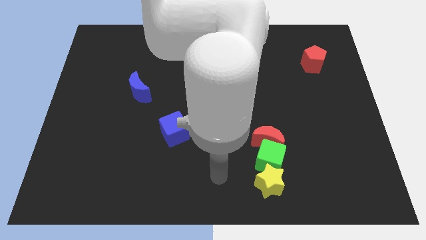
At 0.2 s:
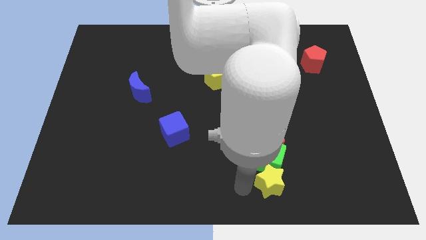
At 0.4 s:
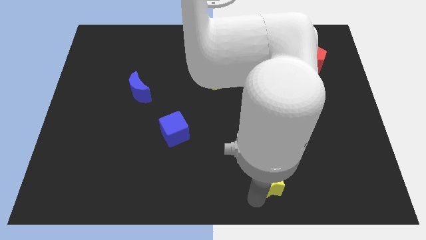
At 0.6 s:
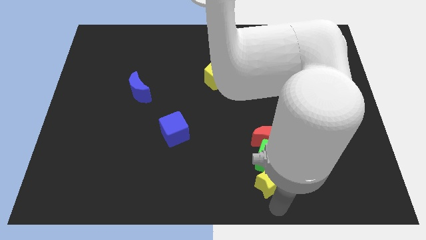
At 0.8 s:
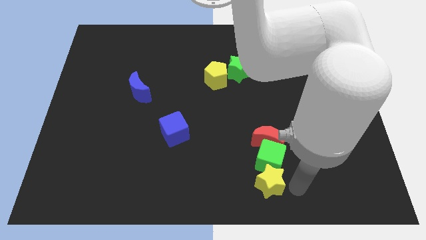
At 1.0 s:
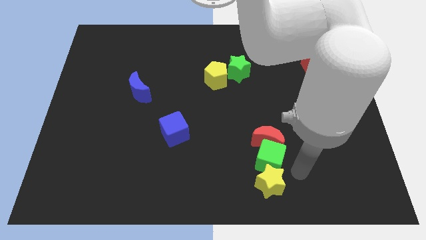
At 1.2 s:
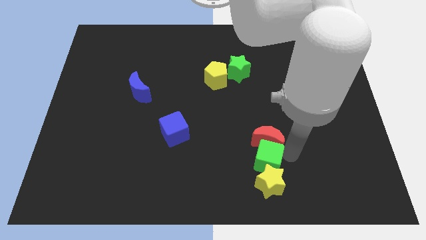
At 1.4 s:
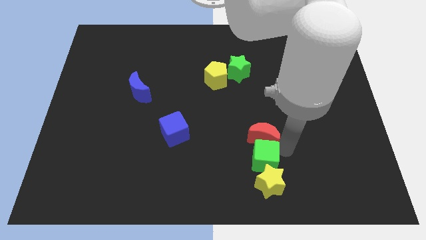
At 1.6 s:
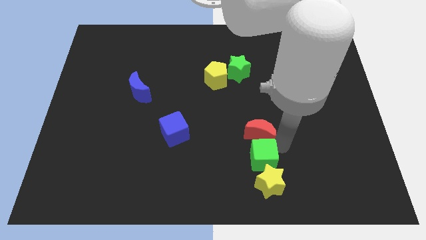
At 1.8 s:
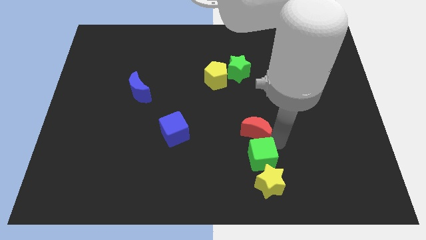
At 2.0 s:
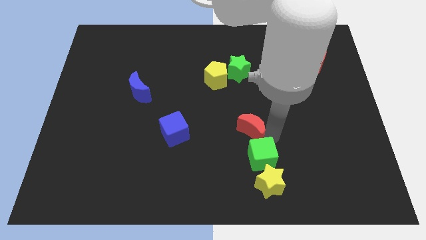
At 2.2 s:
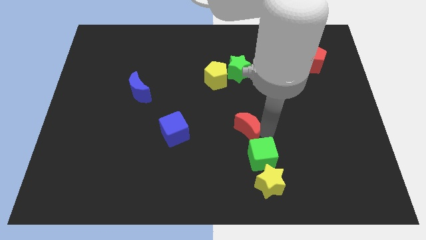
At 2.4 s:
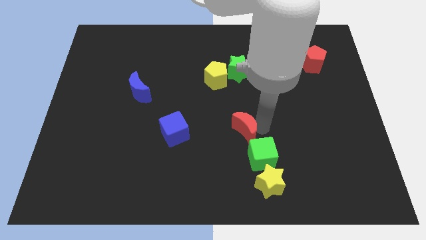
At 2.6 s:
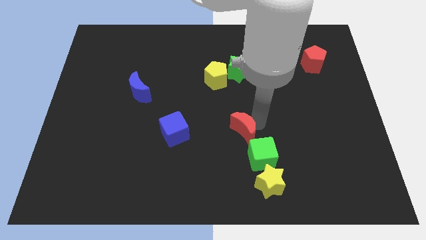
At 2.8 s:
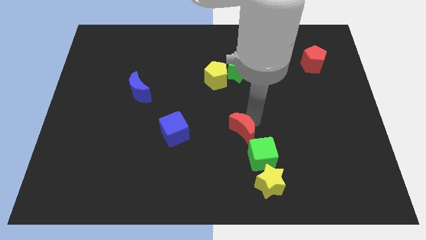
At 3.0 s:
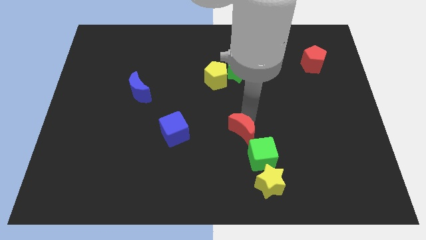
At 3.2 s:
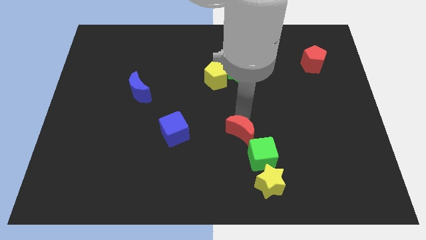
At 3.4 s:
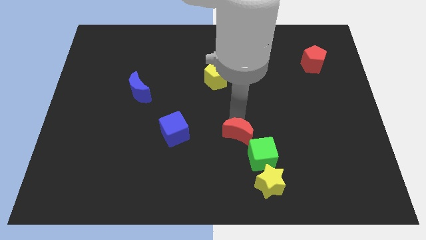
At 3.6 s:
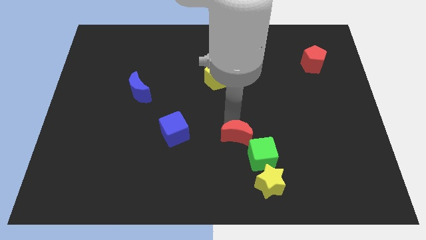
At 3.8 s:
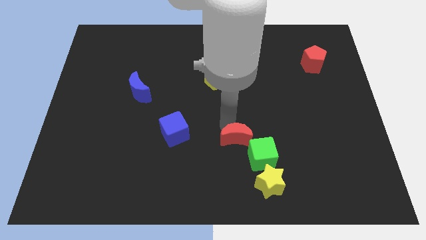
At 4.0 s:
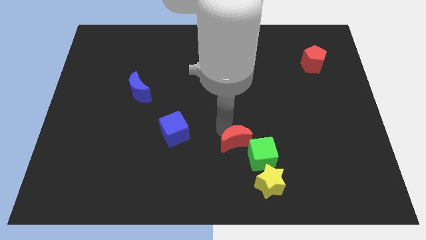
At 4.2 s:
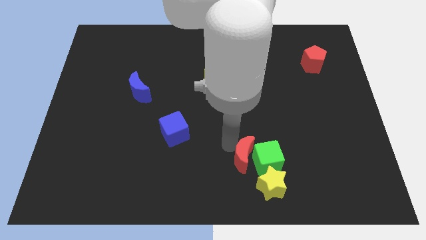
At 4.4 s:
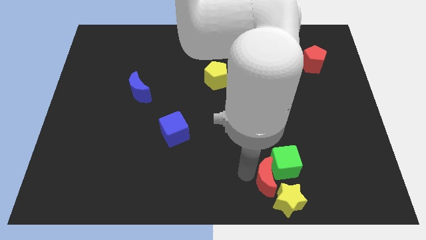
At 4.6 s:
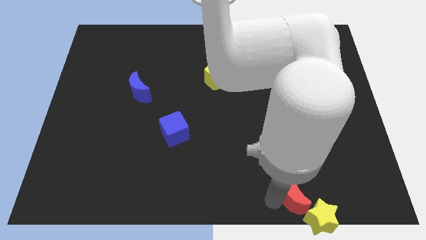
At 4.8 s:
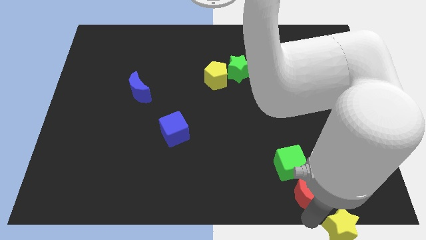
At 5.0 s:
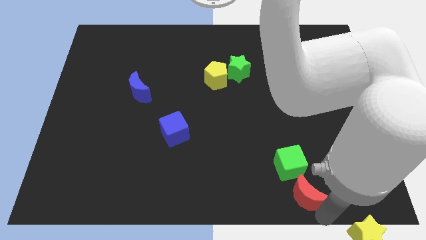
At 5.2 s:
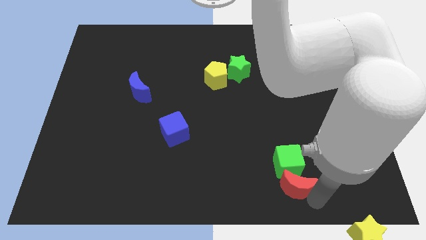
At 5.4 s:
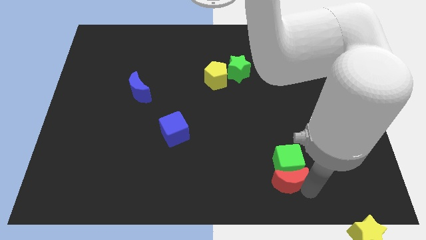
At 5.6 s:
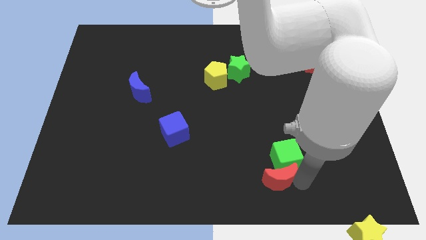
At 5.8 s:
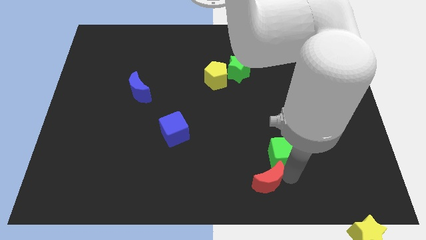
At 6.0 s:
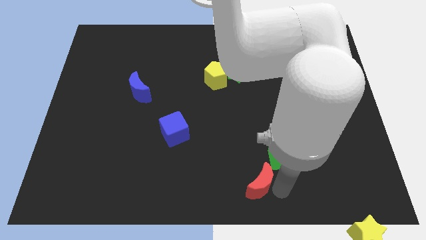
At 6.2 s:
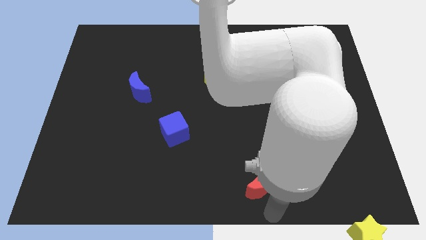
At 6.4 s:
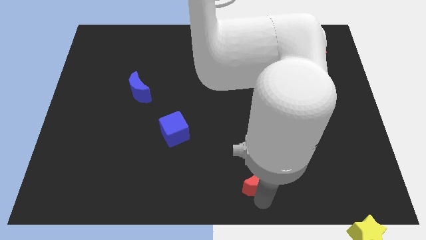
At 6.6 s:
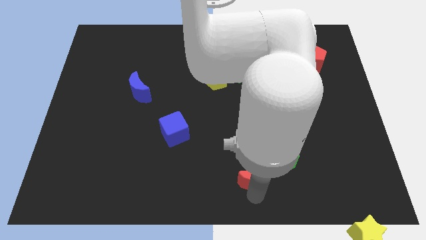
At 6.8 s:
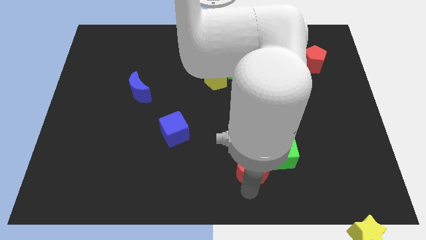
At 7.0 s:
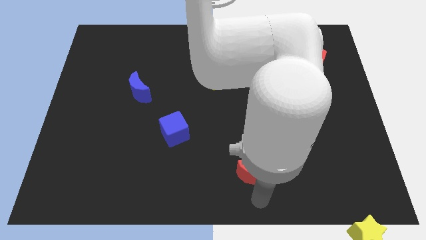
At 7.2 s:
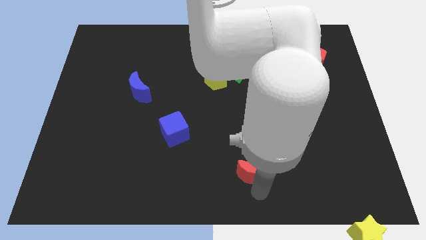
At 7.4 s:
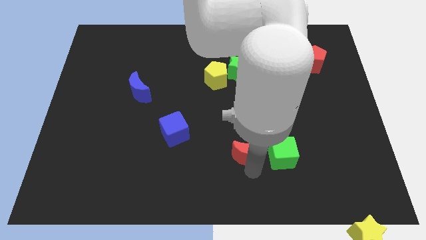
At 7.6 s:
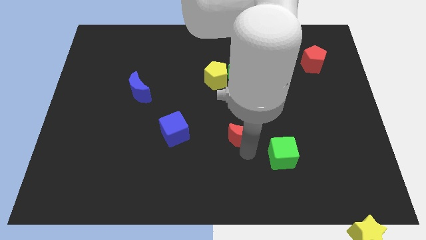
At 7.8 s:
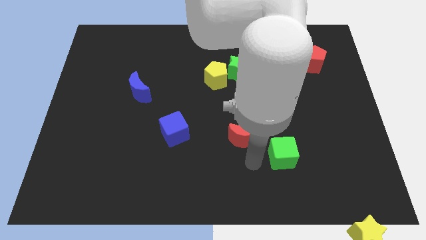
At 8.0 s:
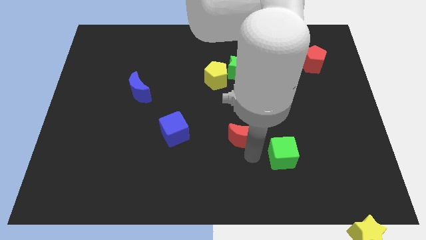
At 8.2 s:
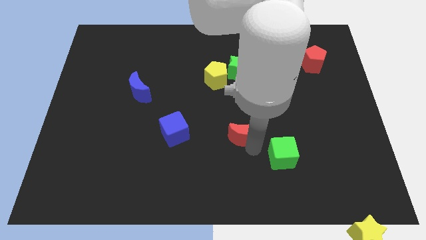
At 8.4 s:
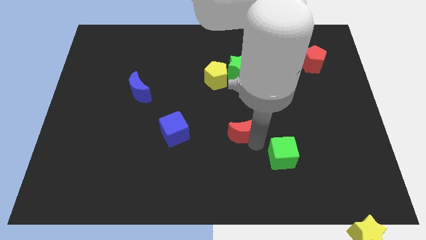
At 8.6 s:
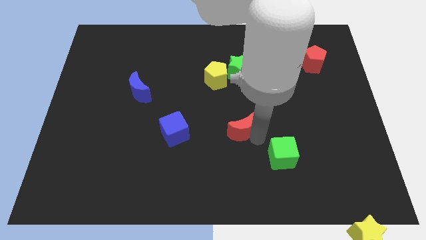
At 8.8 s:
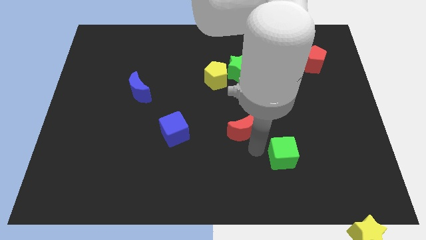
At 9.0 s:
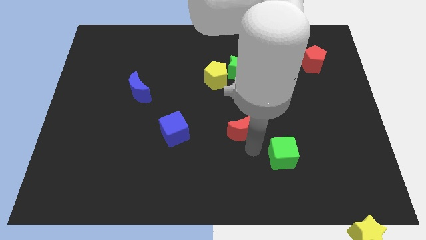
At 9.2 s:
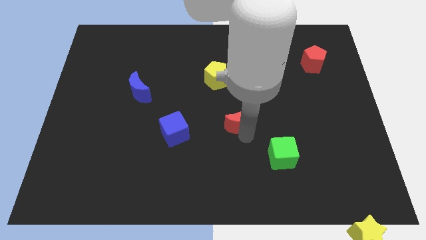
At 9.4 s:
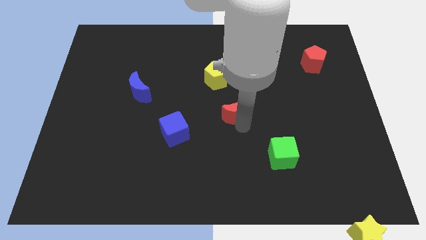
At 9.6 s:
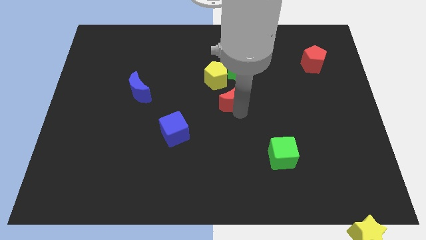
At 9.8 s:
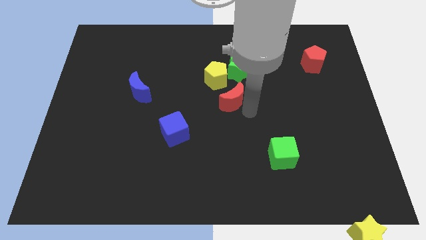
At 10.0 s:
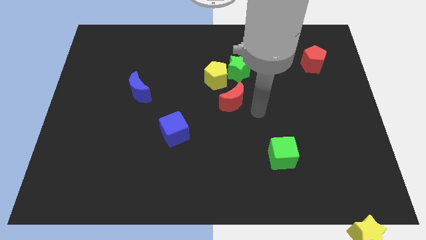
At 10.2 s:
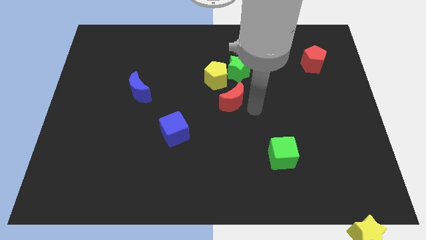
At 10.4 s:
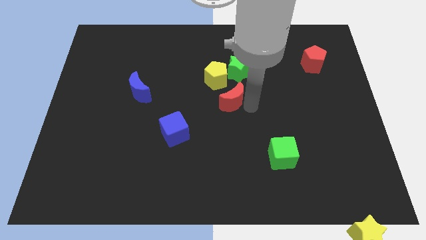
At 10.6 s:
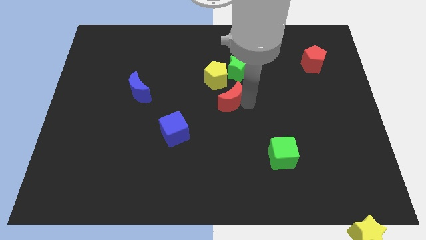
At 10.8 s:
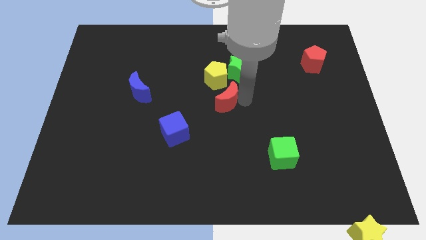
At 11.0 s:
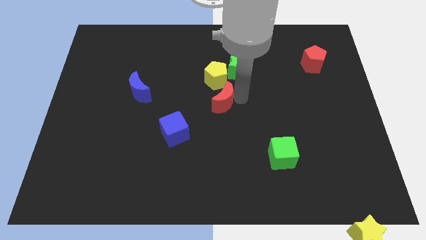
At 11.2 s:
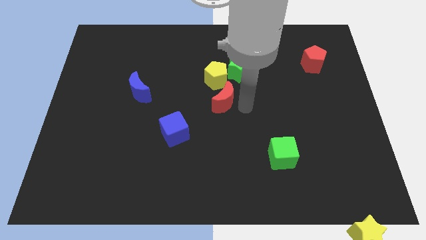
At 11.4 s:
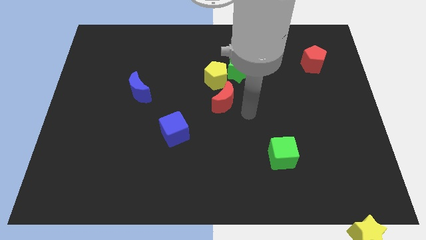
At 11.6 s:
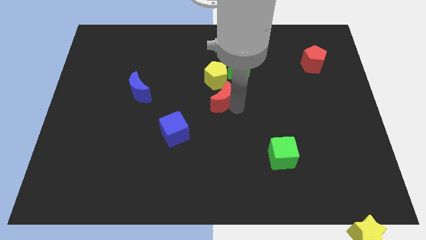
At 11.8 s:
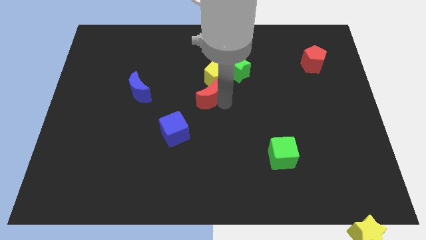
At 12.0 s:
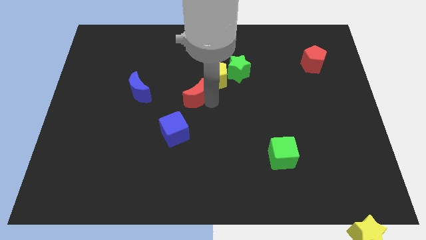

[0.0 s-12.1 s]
slide the red moon up and then to the left

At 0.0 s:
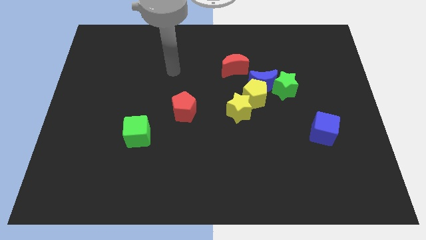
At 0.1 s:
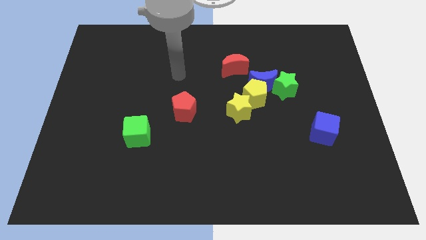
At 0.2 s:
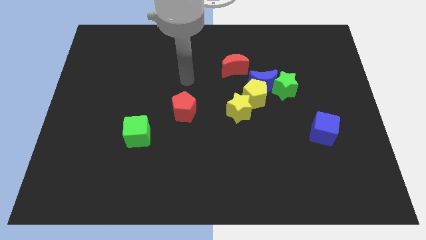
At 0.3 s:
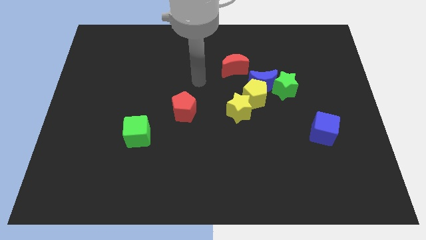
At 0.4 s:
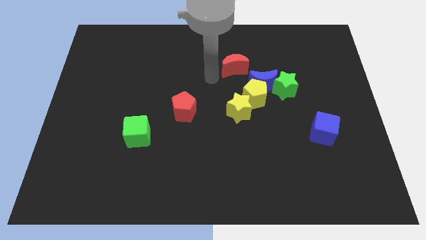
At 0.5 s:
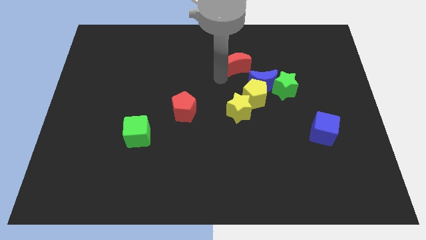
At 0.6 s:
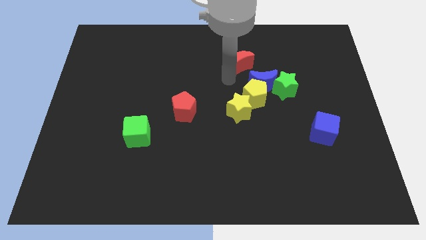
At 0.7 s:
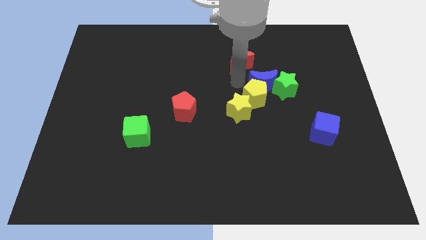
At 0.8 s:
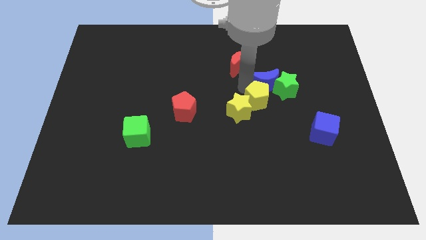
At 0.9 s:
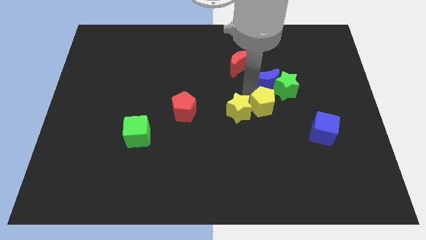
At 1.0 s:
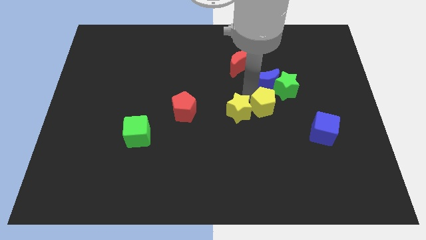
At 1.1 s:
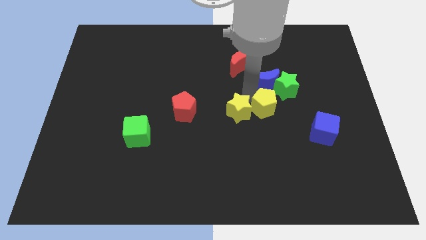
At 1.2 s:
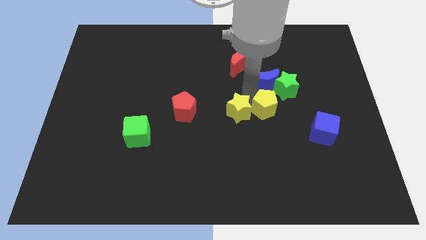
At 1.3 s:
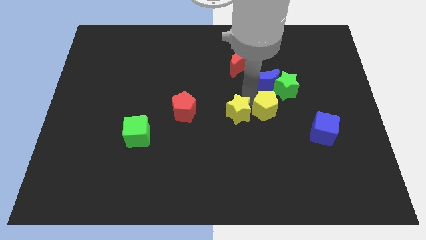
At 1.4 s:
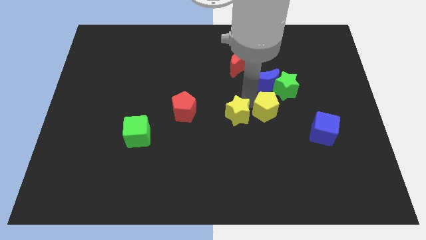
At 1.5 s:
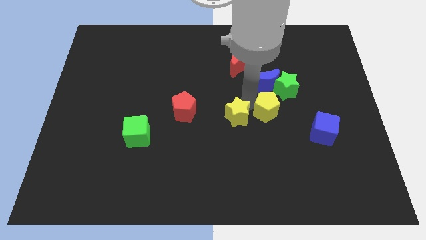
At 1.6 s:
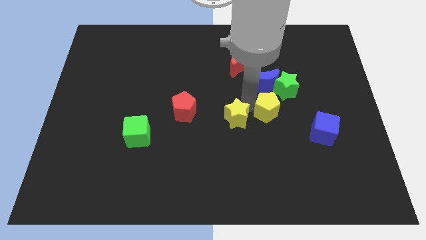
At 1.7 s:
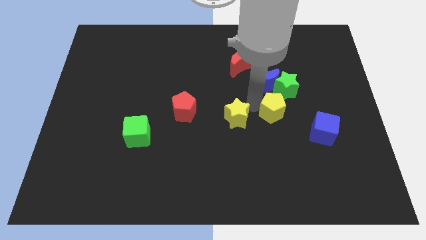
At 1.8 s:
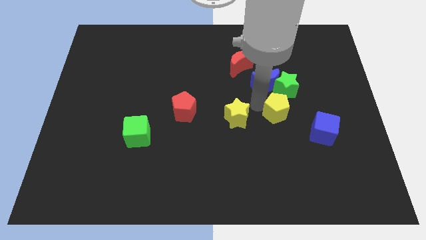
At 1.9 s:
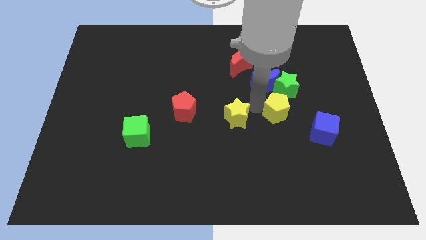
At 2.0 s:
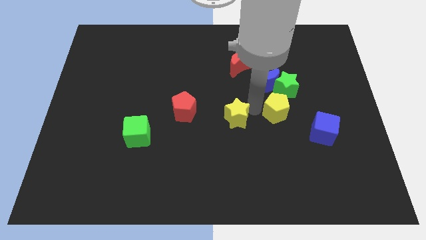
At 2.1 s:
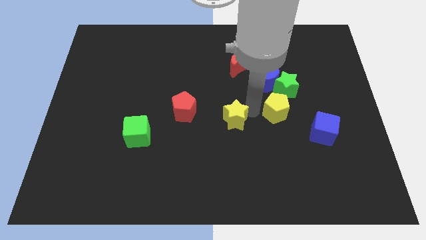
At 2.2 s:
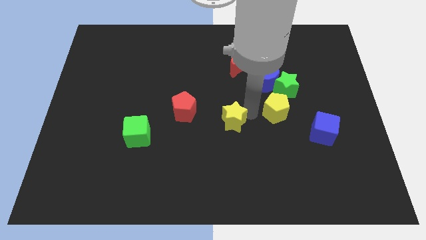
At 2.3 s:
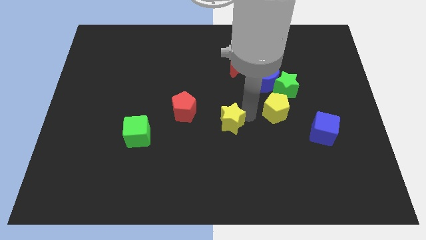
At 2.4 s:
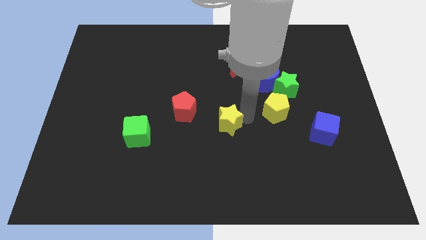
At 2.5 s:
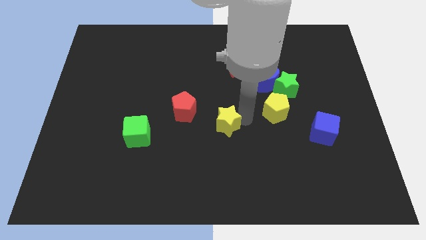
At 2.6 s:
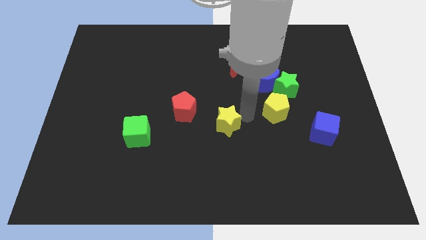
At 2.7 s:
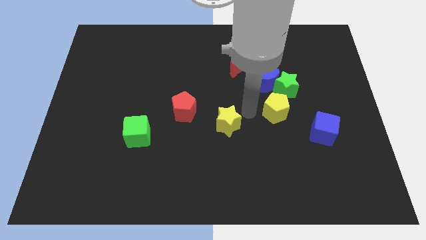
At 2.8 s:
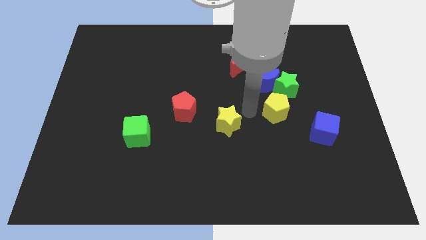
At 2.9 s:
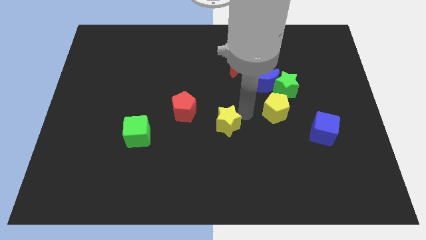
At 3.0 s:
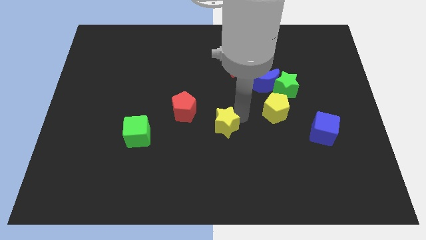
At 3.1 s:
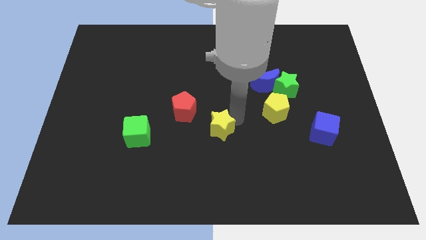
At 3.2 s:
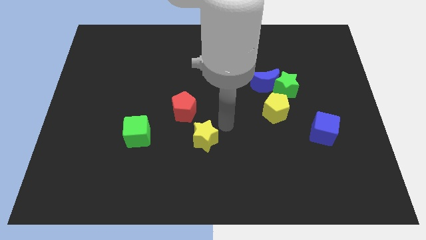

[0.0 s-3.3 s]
push the yellow star slightly downwards and to the left
